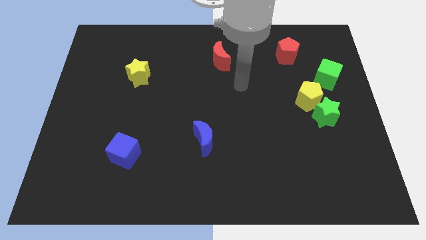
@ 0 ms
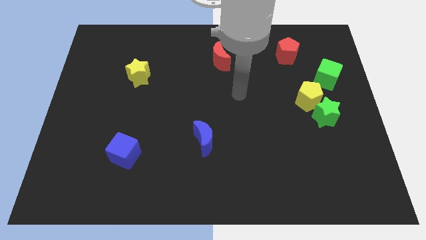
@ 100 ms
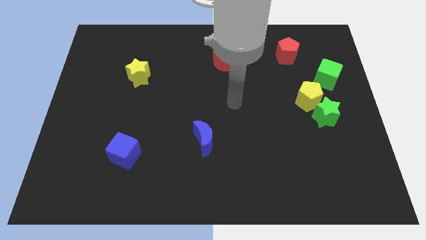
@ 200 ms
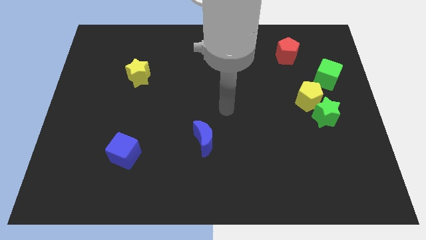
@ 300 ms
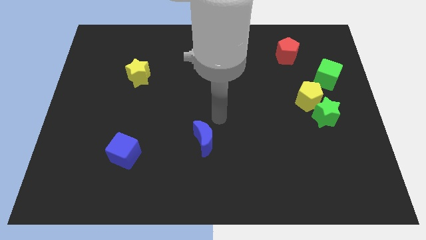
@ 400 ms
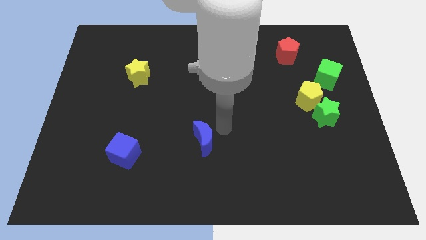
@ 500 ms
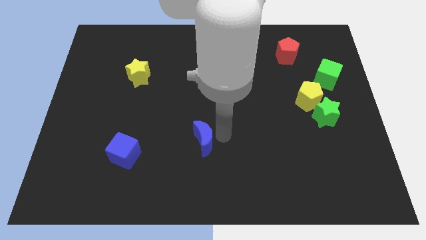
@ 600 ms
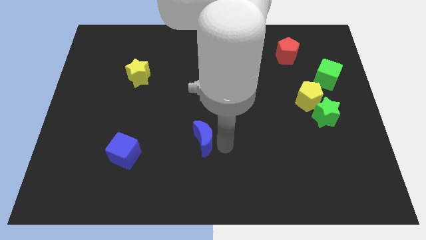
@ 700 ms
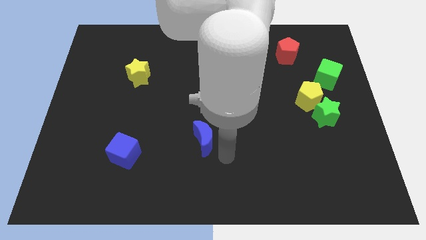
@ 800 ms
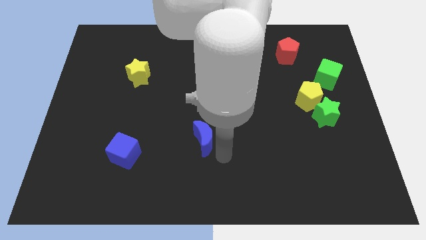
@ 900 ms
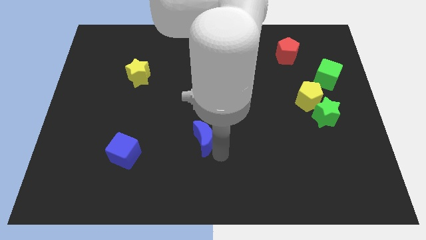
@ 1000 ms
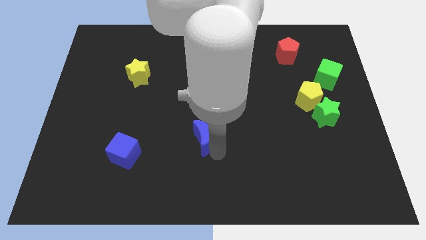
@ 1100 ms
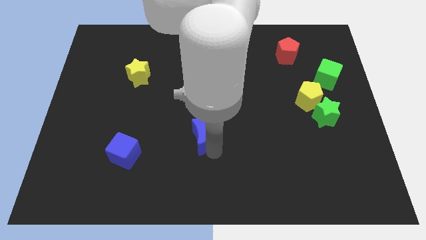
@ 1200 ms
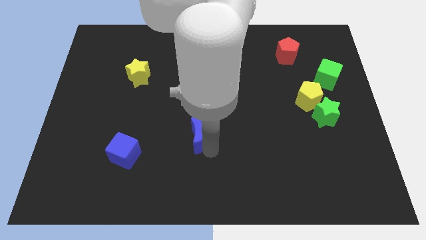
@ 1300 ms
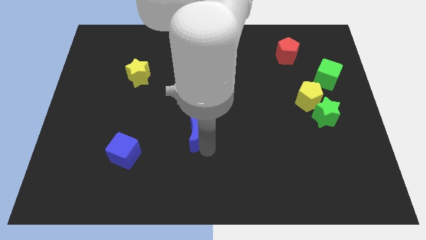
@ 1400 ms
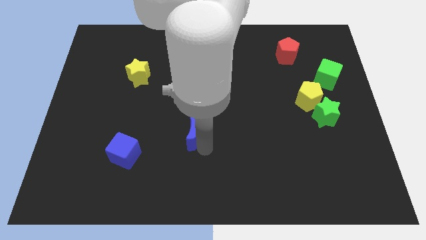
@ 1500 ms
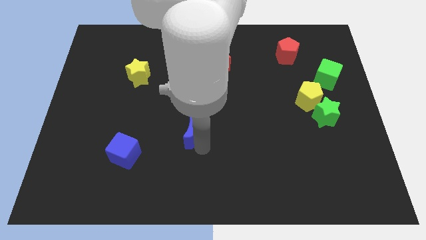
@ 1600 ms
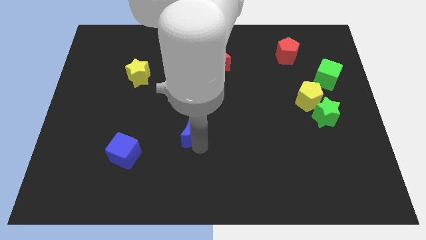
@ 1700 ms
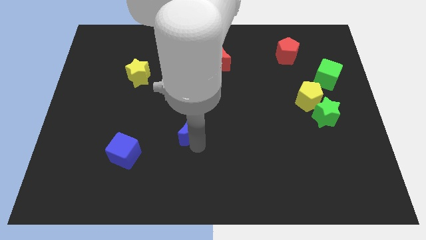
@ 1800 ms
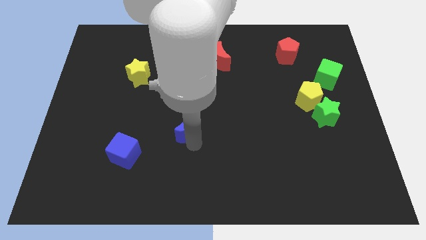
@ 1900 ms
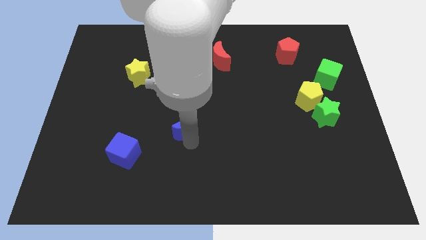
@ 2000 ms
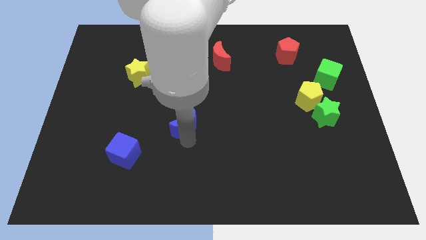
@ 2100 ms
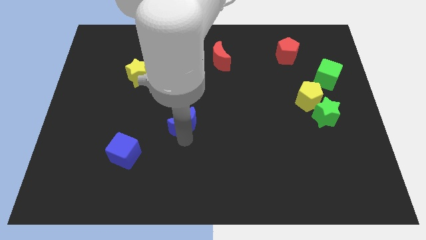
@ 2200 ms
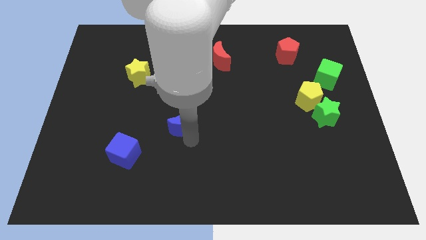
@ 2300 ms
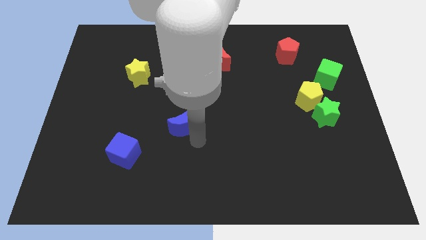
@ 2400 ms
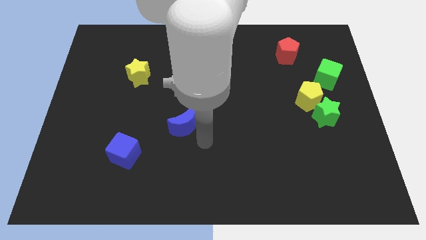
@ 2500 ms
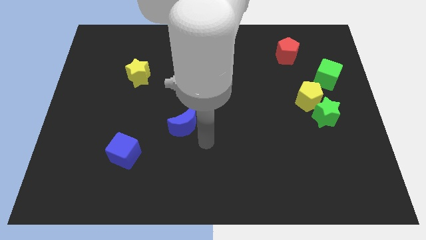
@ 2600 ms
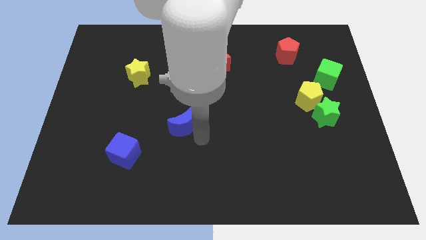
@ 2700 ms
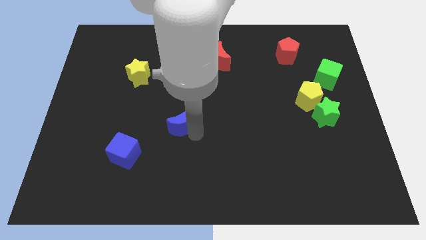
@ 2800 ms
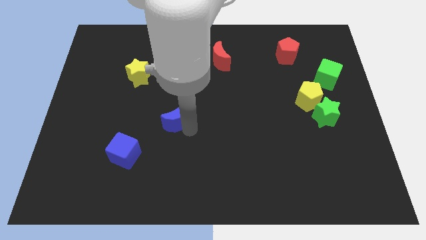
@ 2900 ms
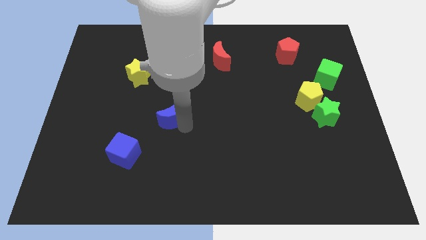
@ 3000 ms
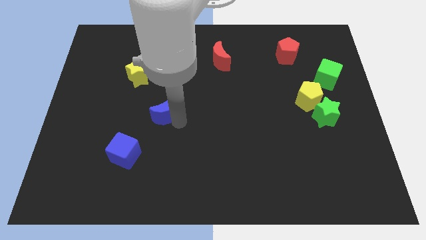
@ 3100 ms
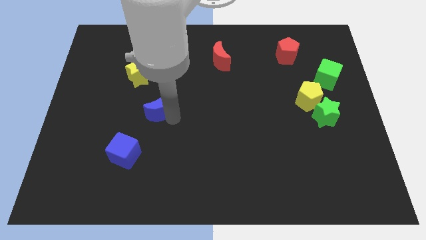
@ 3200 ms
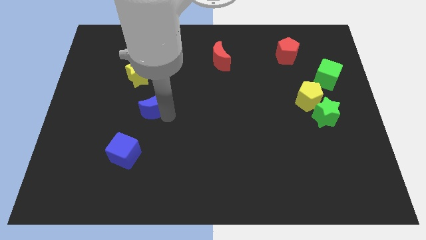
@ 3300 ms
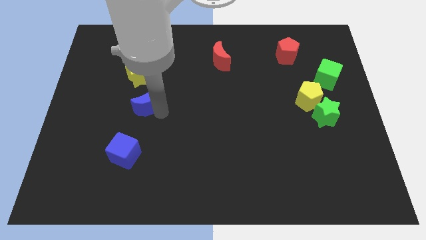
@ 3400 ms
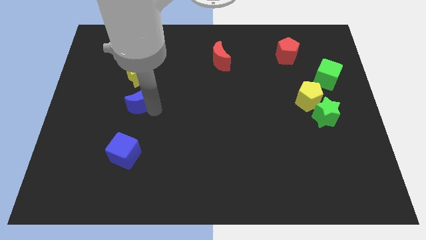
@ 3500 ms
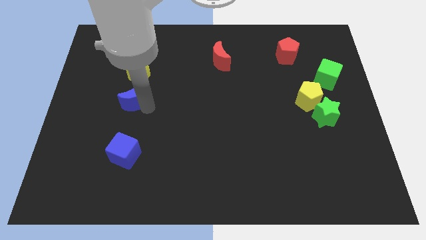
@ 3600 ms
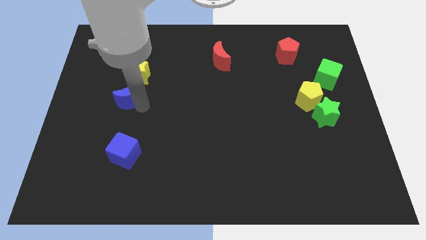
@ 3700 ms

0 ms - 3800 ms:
move the blue moon diagonally up and to the left

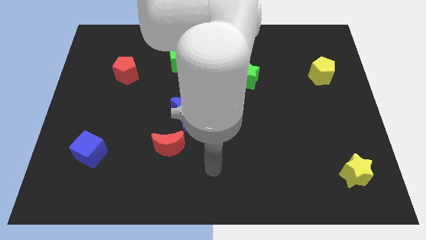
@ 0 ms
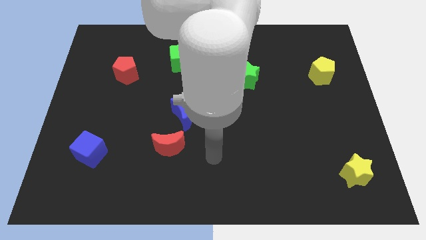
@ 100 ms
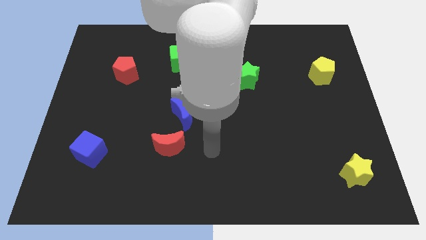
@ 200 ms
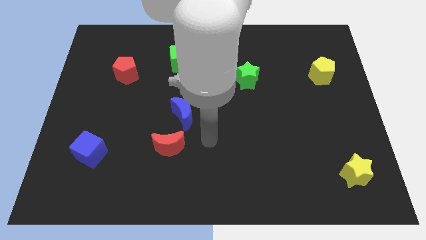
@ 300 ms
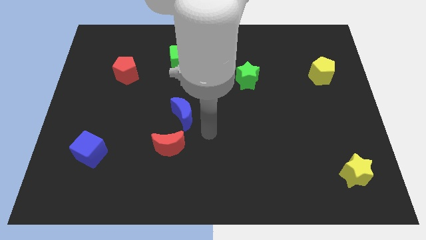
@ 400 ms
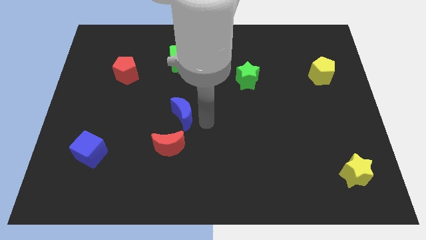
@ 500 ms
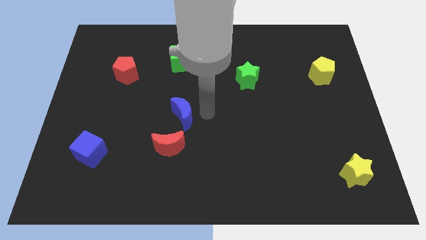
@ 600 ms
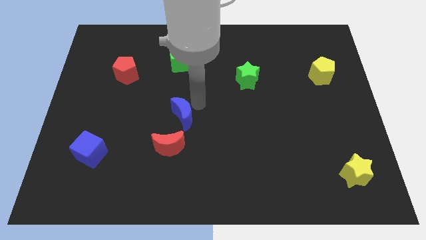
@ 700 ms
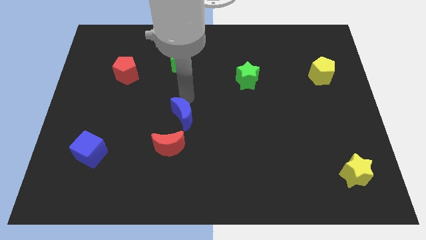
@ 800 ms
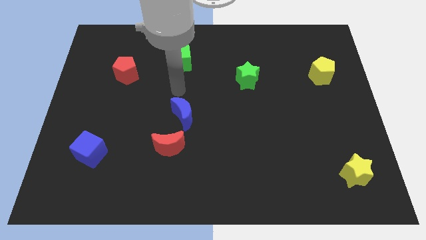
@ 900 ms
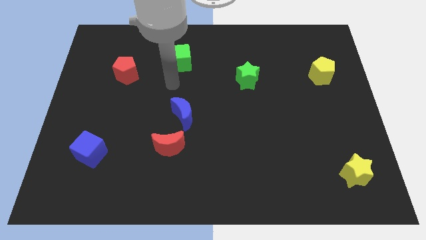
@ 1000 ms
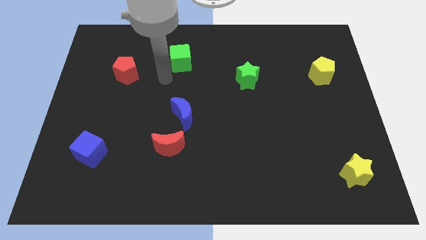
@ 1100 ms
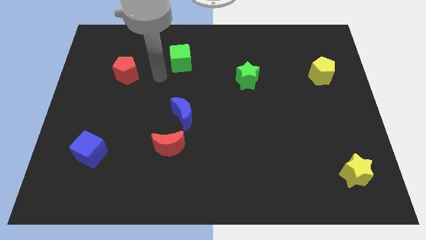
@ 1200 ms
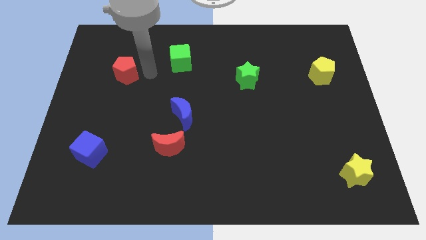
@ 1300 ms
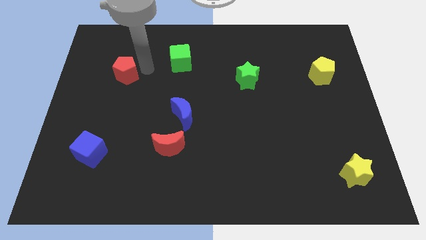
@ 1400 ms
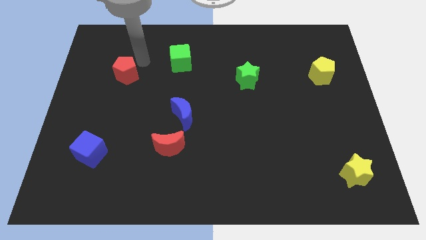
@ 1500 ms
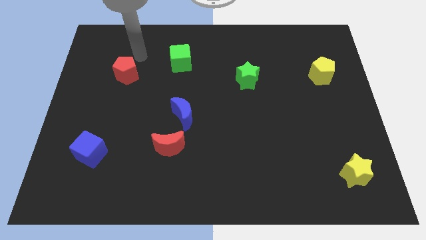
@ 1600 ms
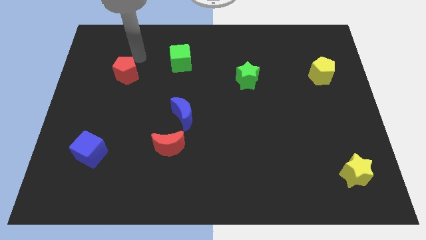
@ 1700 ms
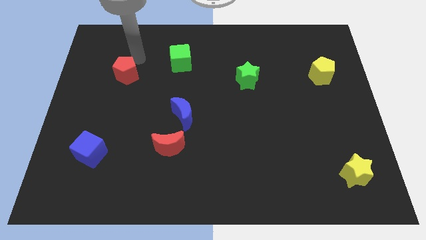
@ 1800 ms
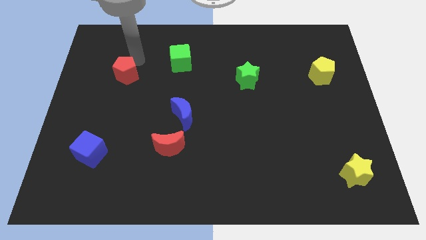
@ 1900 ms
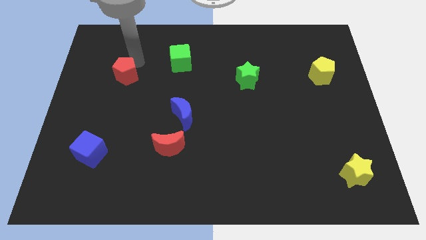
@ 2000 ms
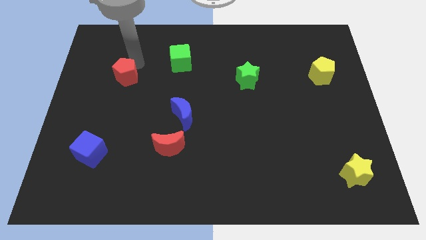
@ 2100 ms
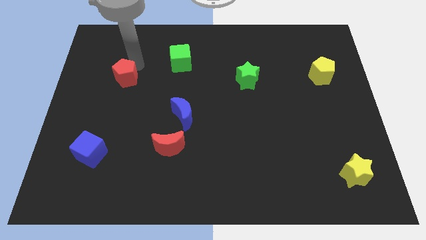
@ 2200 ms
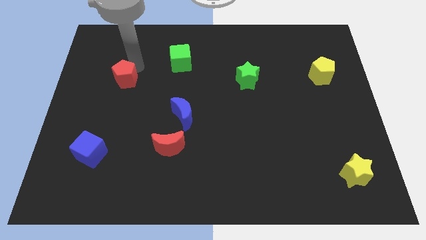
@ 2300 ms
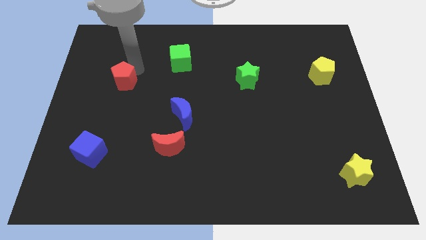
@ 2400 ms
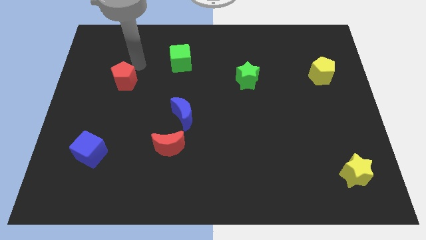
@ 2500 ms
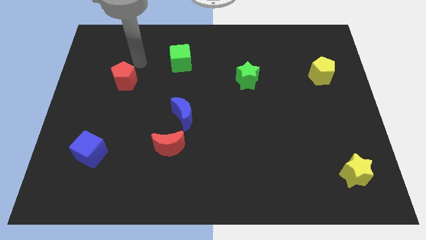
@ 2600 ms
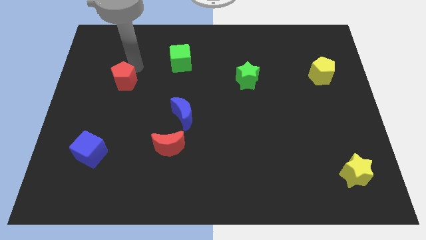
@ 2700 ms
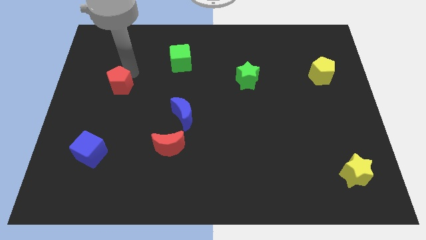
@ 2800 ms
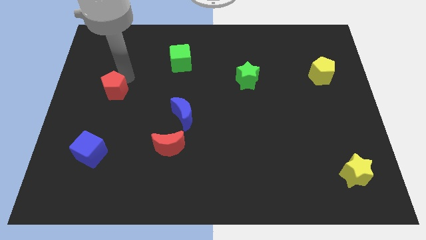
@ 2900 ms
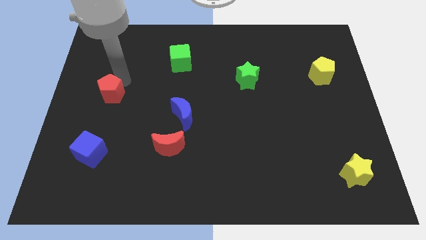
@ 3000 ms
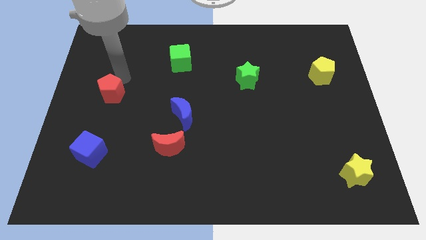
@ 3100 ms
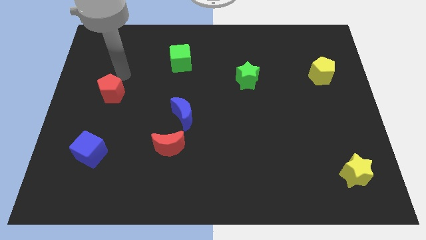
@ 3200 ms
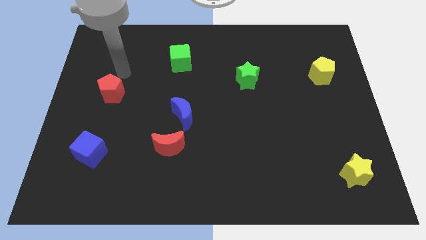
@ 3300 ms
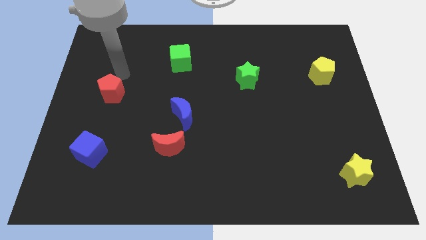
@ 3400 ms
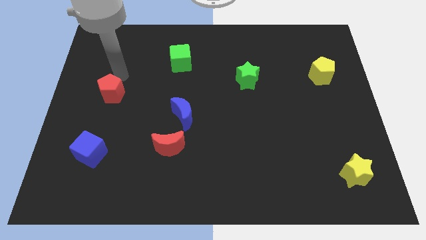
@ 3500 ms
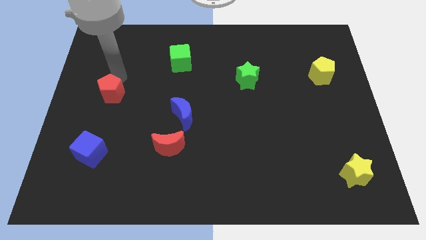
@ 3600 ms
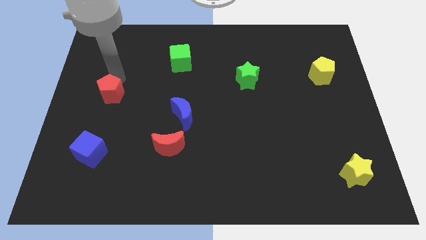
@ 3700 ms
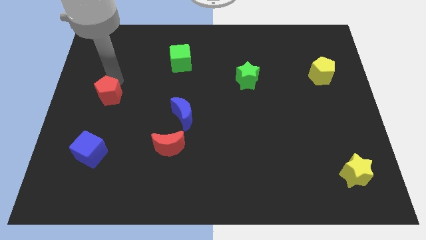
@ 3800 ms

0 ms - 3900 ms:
move the red pentagon down somewhat

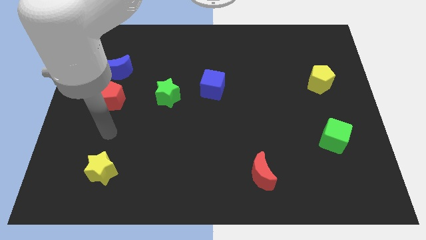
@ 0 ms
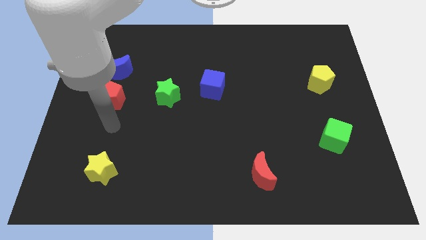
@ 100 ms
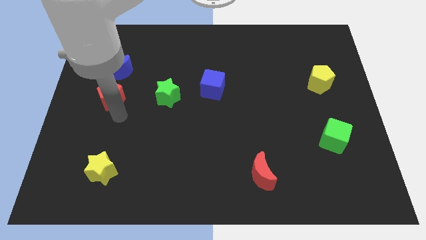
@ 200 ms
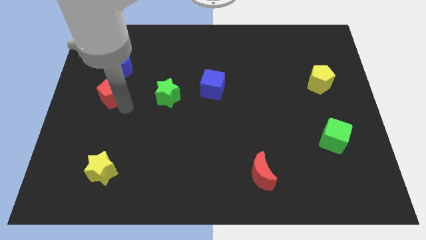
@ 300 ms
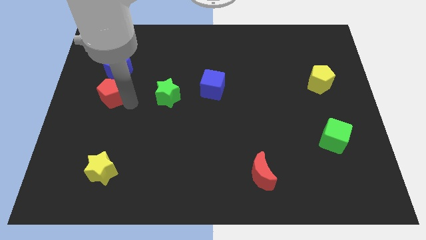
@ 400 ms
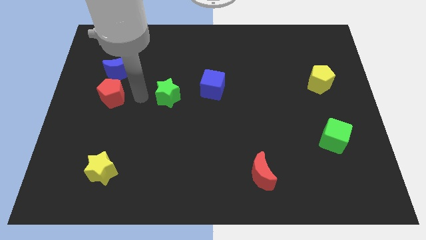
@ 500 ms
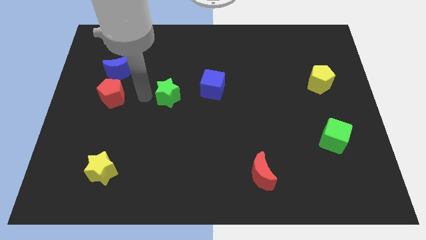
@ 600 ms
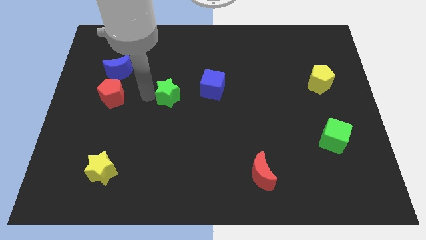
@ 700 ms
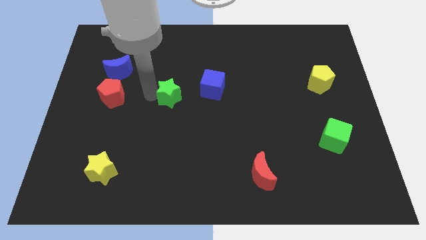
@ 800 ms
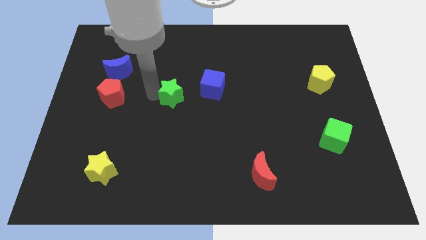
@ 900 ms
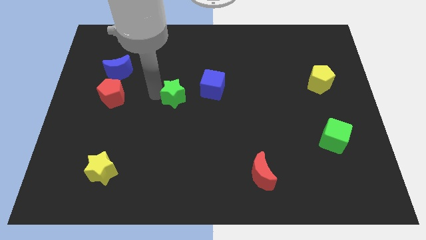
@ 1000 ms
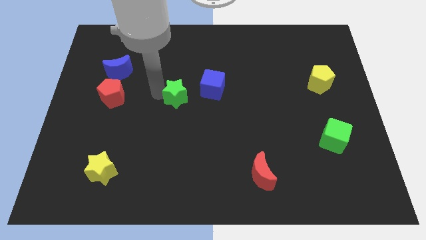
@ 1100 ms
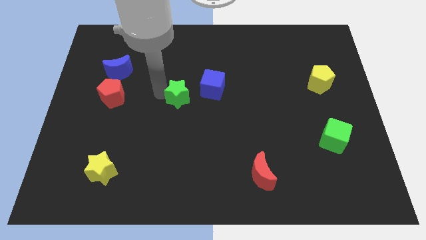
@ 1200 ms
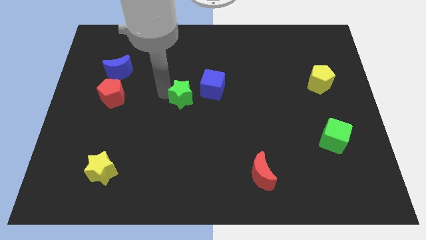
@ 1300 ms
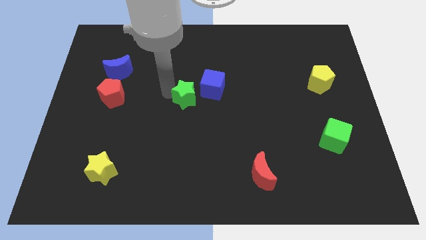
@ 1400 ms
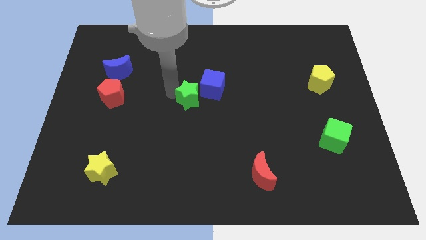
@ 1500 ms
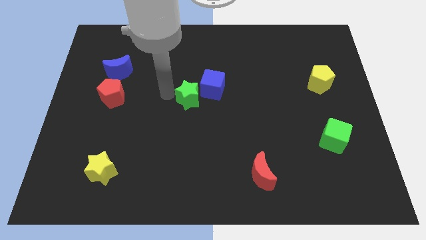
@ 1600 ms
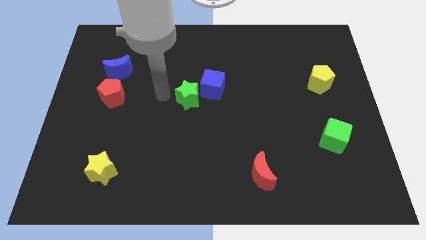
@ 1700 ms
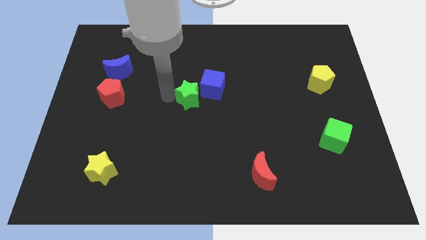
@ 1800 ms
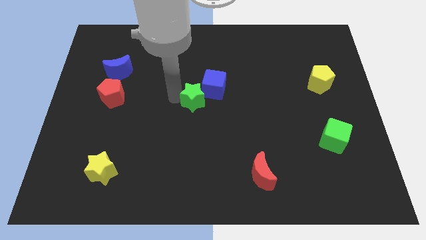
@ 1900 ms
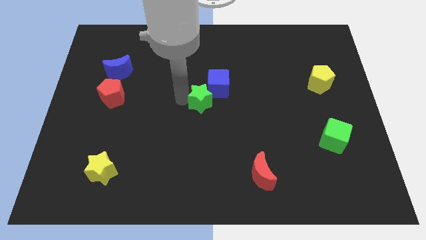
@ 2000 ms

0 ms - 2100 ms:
slide the green star a little bit right
